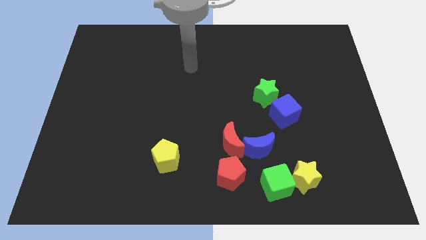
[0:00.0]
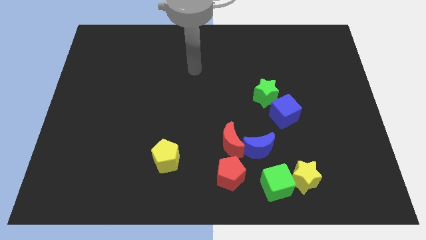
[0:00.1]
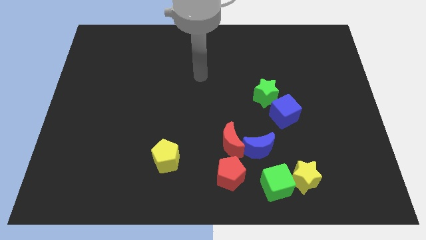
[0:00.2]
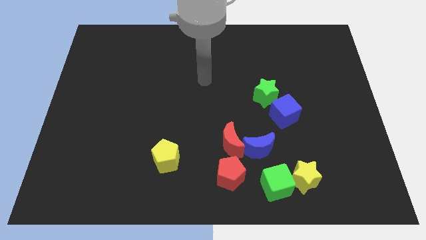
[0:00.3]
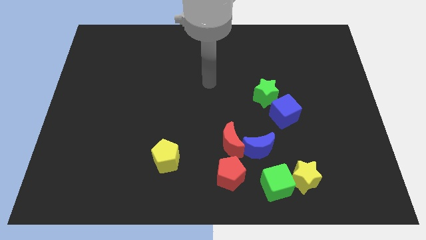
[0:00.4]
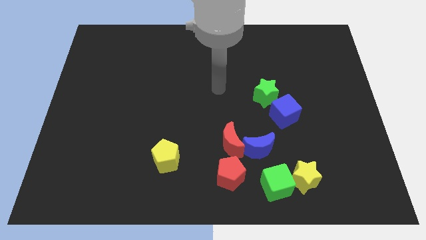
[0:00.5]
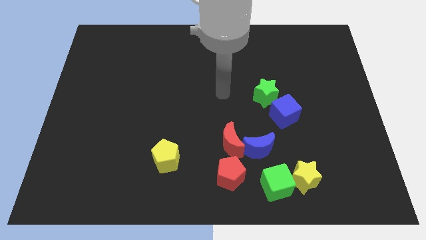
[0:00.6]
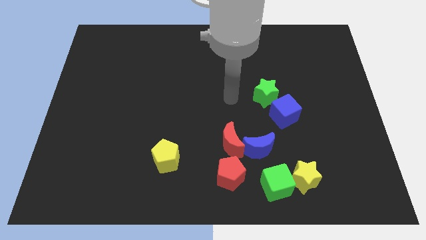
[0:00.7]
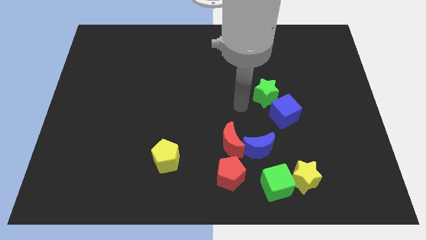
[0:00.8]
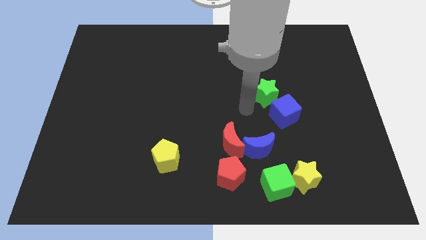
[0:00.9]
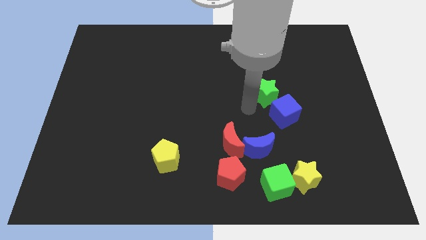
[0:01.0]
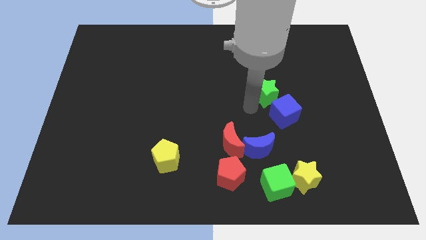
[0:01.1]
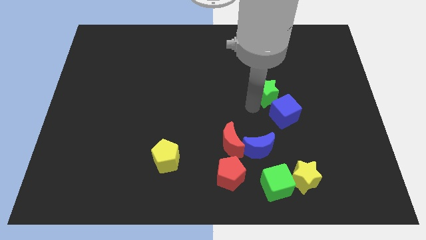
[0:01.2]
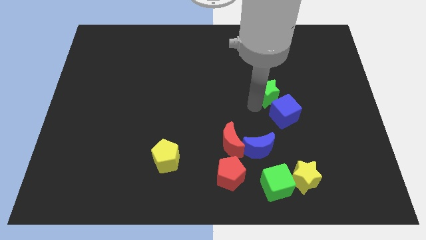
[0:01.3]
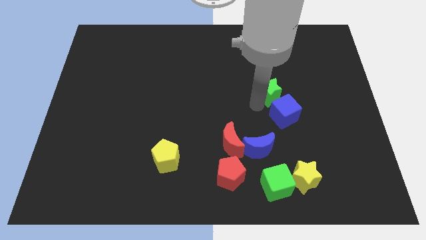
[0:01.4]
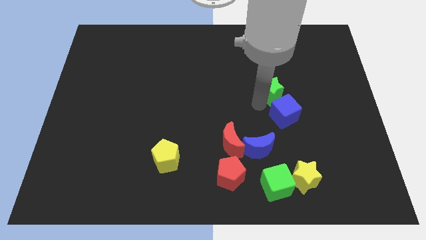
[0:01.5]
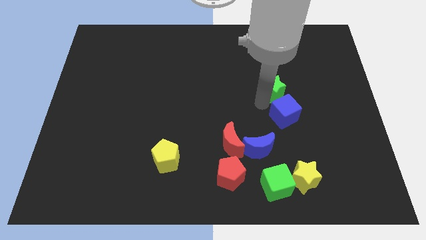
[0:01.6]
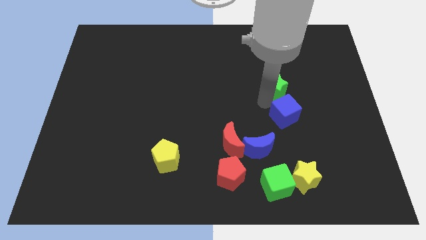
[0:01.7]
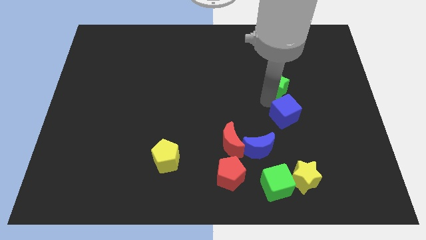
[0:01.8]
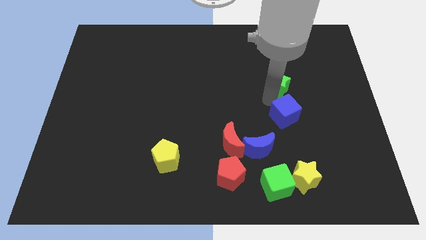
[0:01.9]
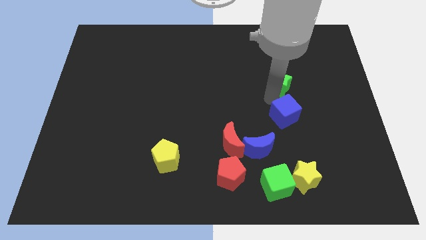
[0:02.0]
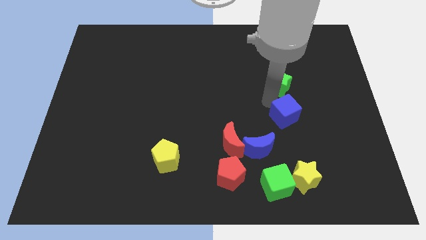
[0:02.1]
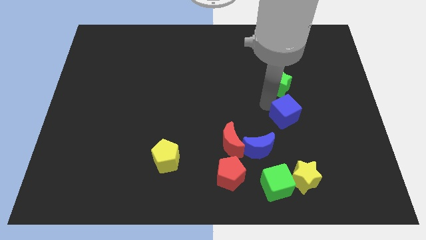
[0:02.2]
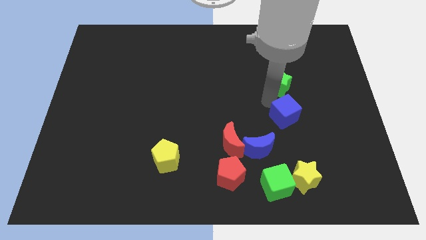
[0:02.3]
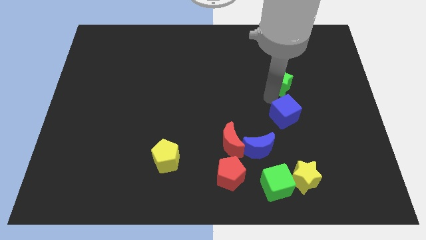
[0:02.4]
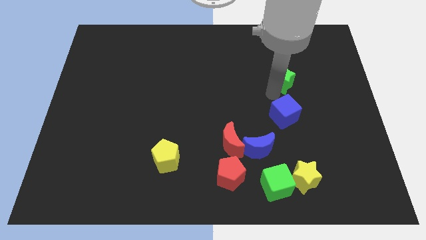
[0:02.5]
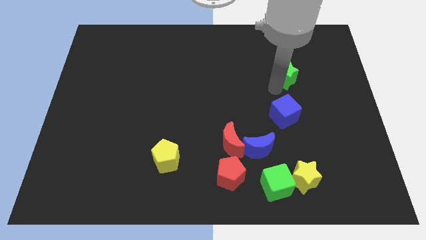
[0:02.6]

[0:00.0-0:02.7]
slide the green star diagonally upwards and to the right a little bit

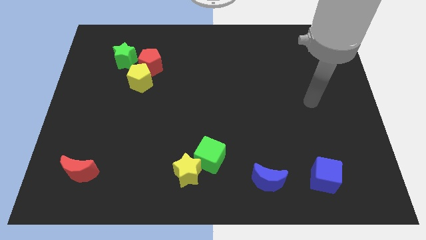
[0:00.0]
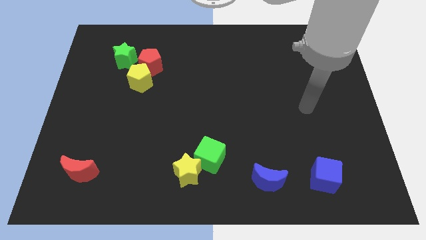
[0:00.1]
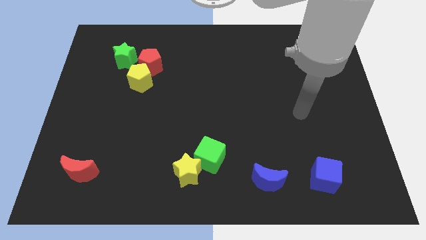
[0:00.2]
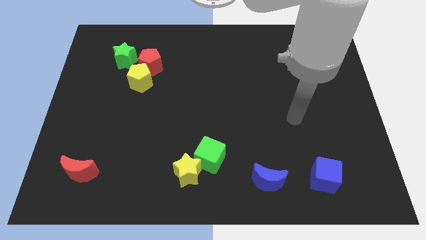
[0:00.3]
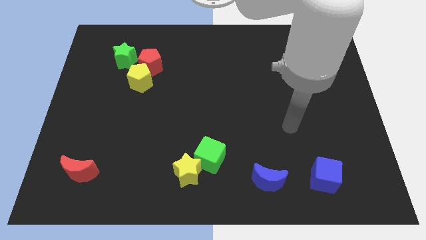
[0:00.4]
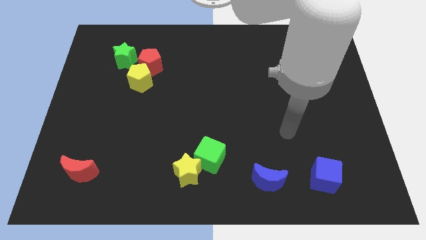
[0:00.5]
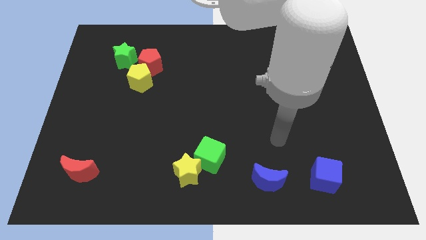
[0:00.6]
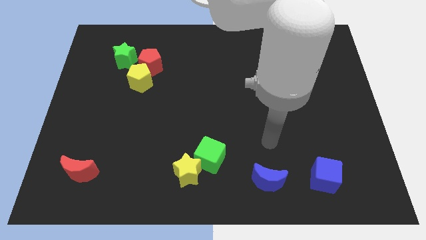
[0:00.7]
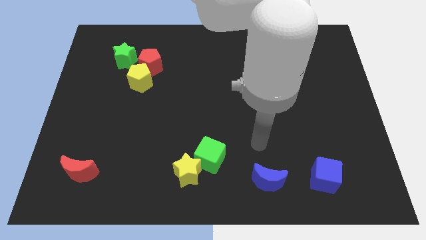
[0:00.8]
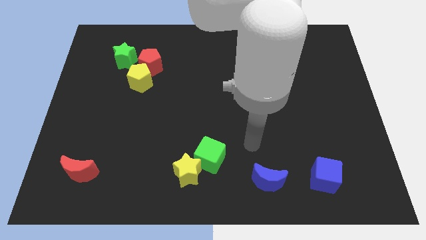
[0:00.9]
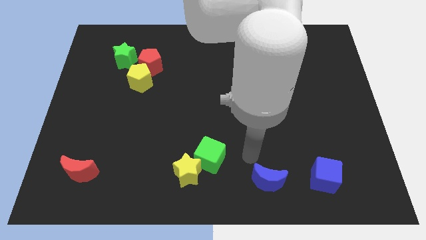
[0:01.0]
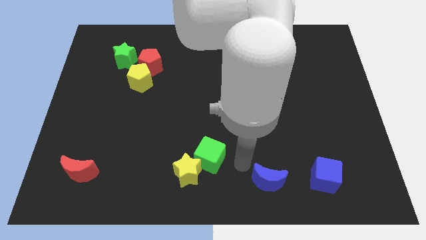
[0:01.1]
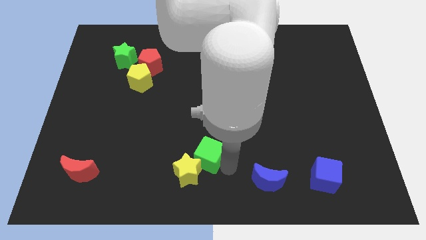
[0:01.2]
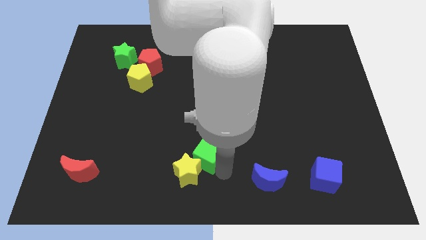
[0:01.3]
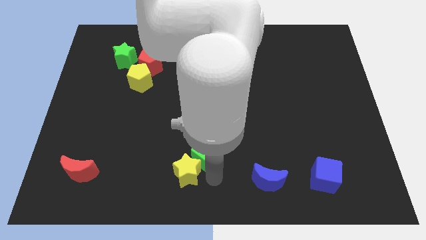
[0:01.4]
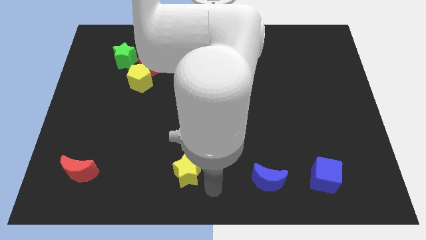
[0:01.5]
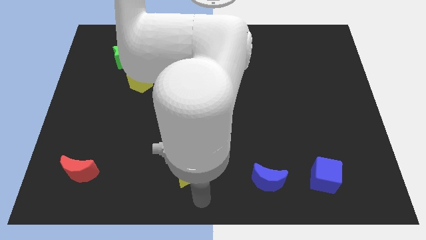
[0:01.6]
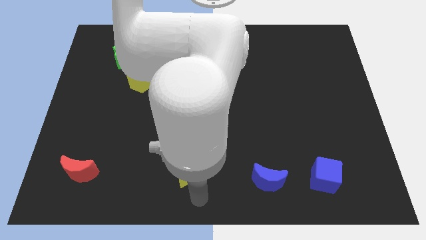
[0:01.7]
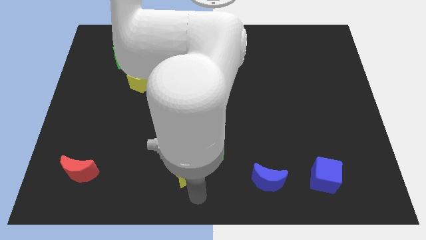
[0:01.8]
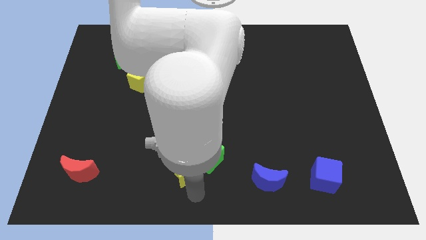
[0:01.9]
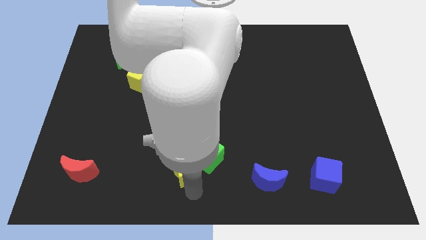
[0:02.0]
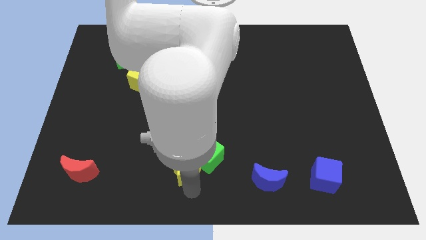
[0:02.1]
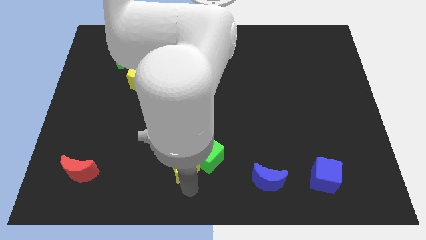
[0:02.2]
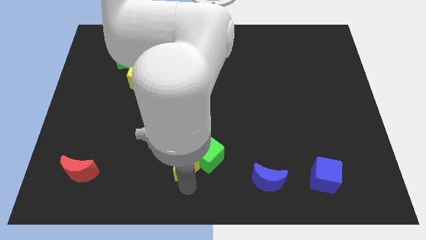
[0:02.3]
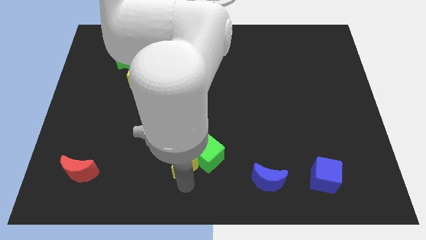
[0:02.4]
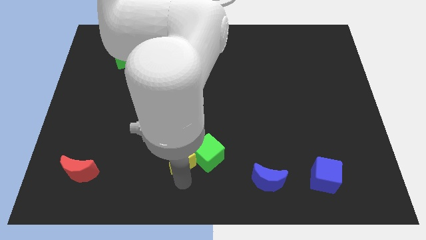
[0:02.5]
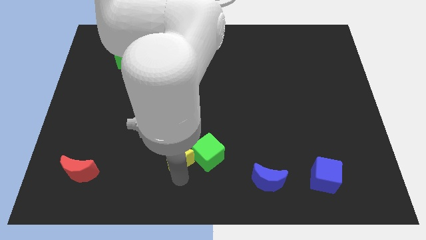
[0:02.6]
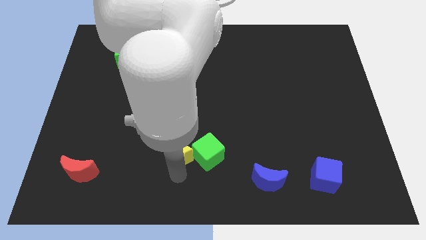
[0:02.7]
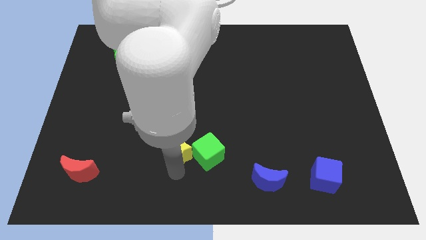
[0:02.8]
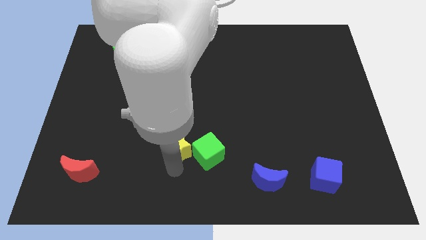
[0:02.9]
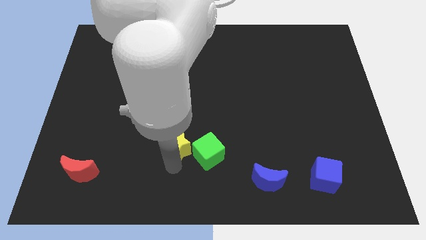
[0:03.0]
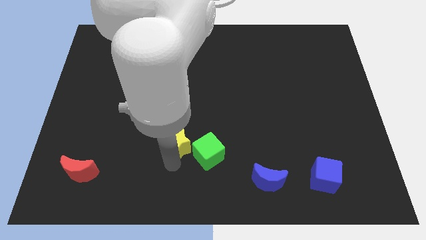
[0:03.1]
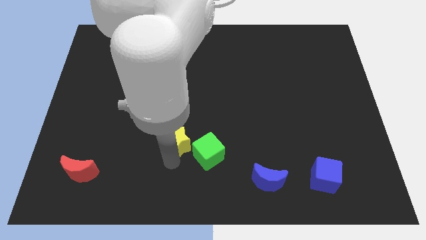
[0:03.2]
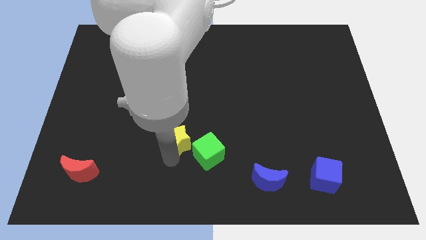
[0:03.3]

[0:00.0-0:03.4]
slightly push the yellow star upwards

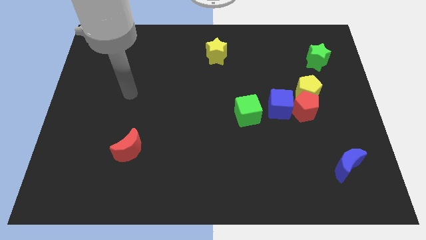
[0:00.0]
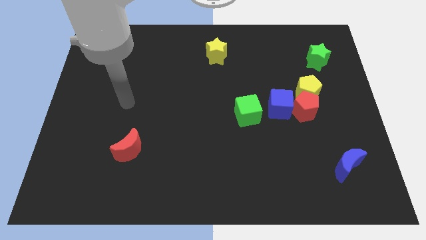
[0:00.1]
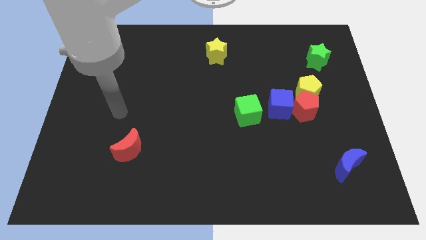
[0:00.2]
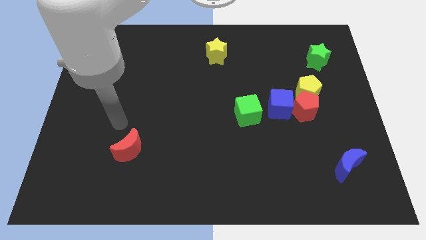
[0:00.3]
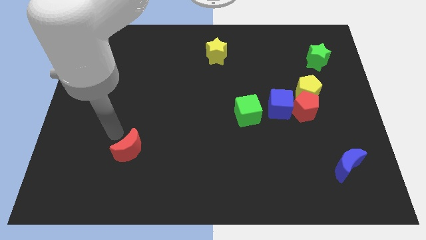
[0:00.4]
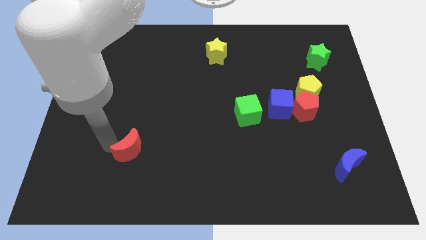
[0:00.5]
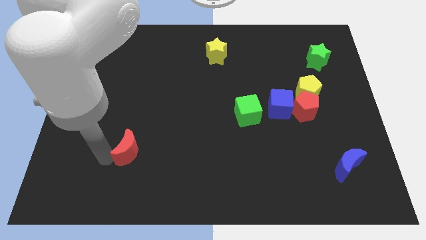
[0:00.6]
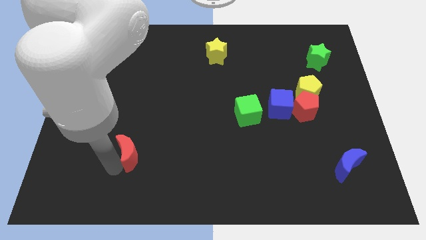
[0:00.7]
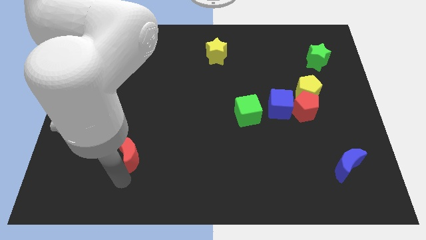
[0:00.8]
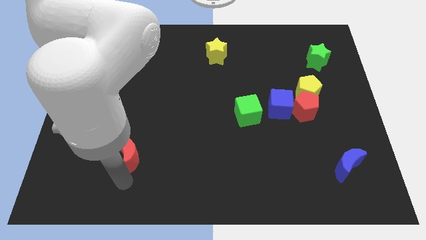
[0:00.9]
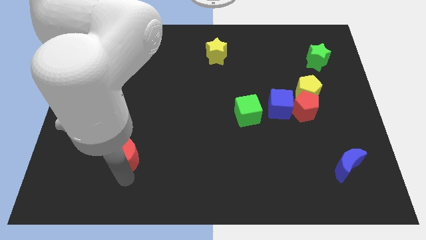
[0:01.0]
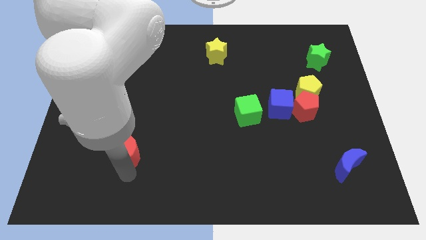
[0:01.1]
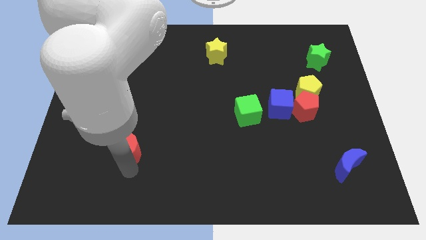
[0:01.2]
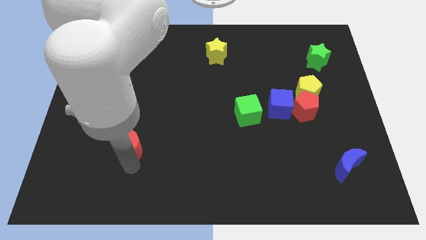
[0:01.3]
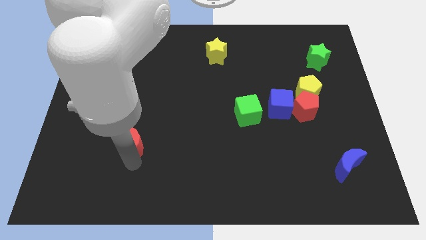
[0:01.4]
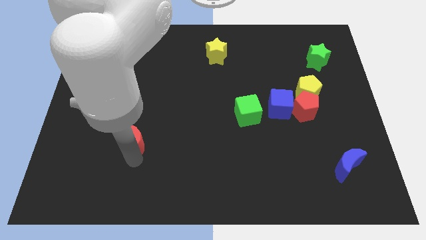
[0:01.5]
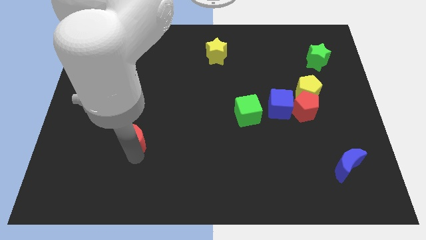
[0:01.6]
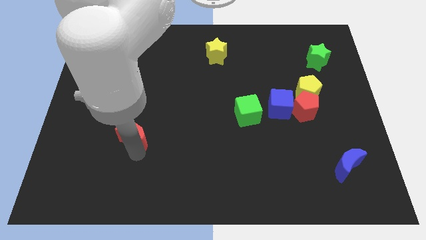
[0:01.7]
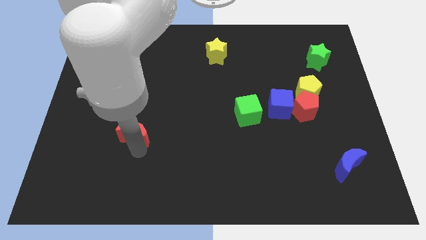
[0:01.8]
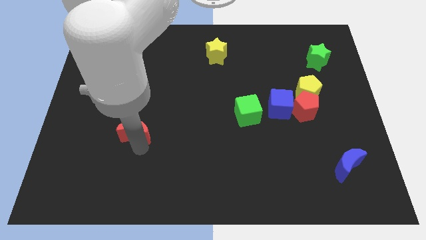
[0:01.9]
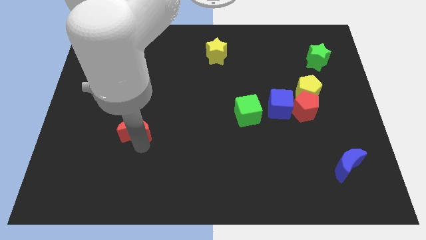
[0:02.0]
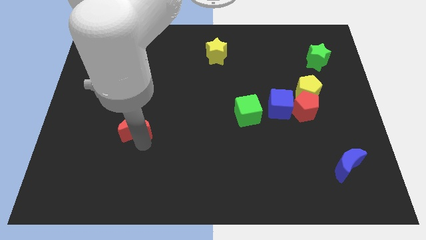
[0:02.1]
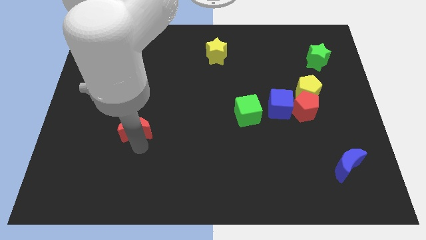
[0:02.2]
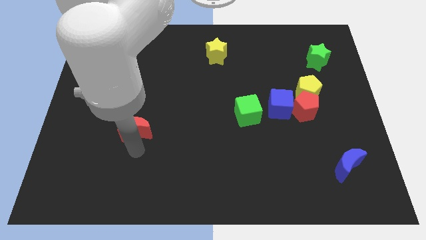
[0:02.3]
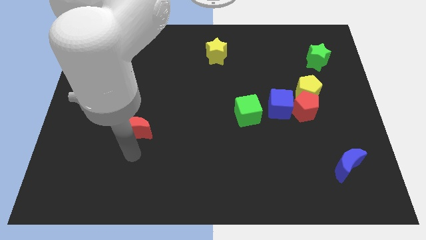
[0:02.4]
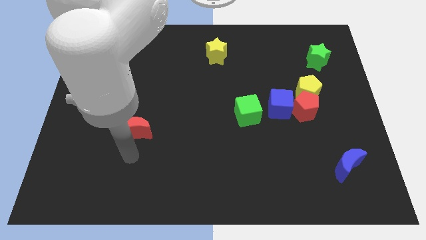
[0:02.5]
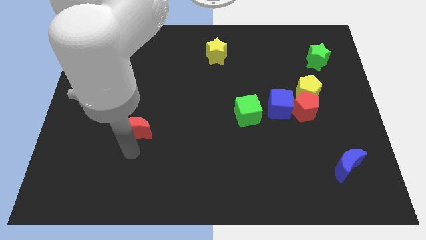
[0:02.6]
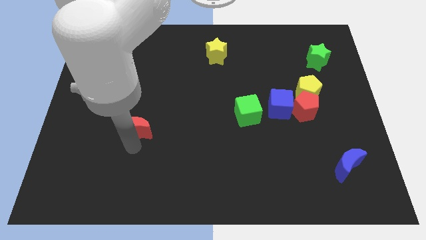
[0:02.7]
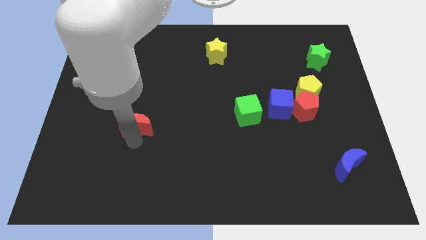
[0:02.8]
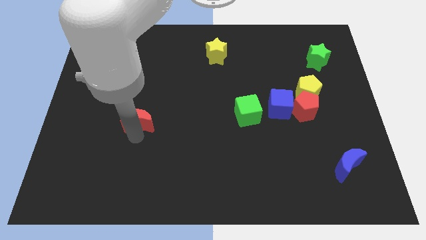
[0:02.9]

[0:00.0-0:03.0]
slightly move the red moon upwards
